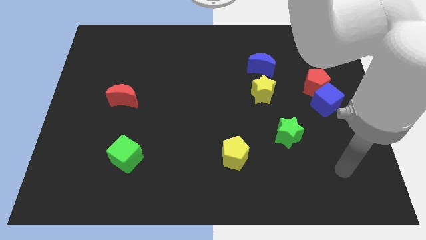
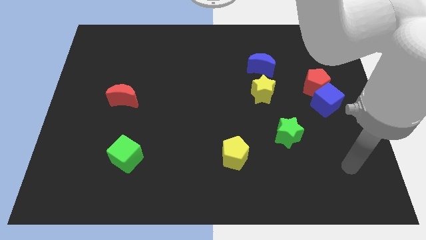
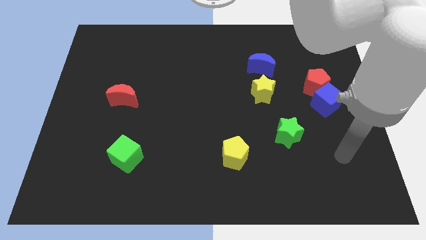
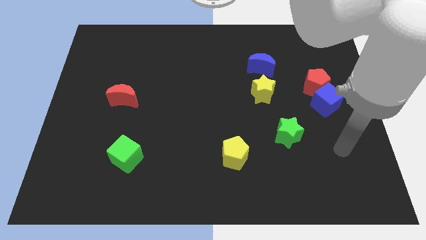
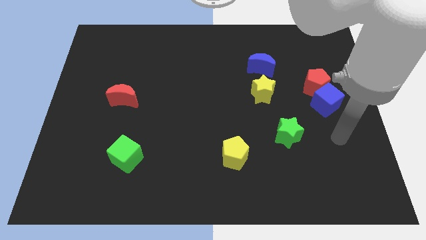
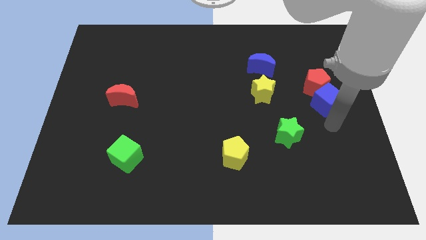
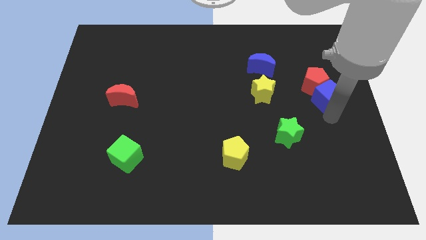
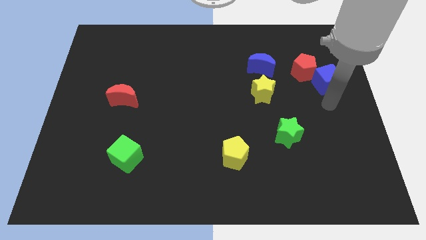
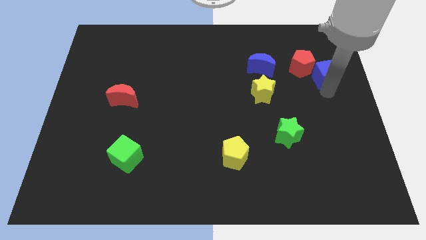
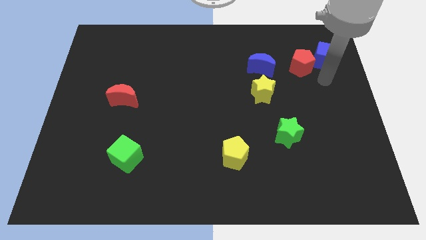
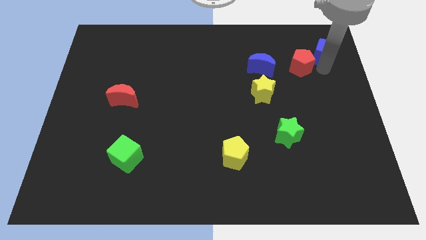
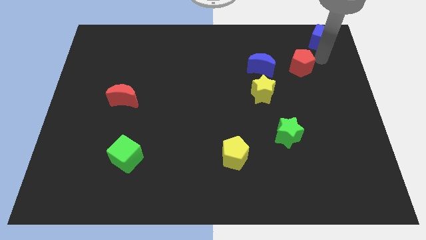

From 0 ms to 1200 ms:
pull the red pentagon apart from the blue cube

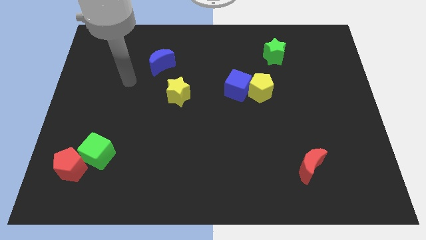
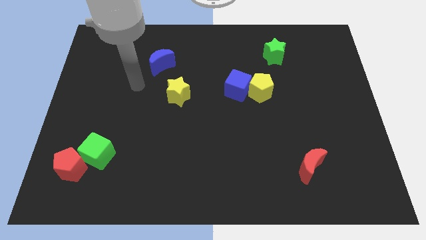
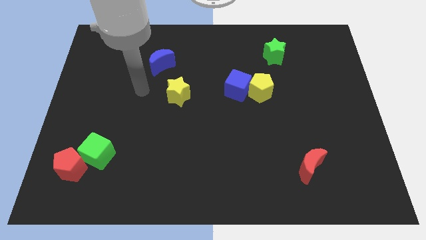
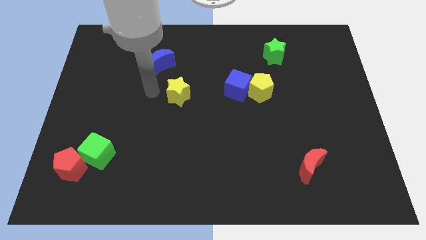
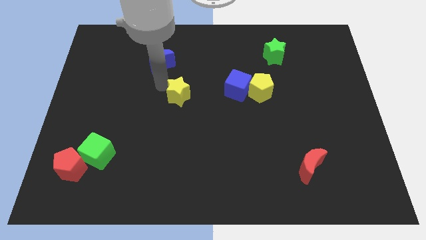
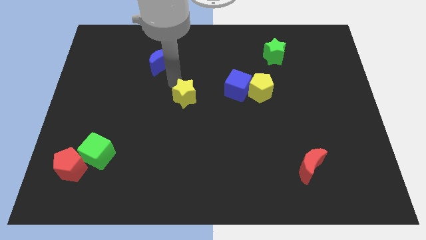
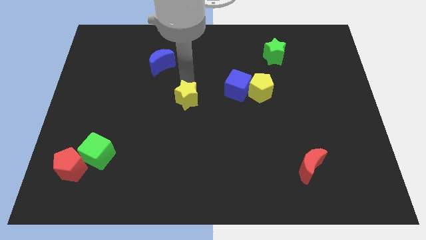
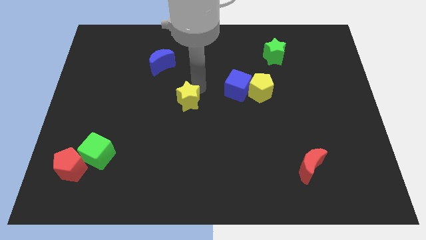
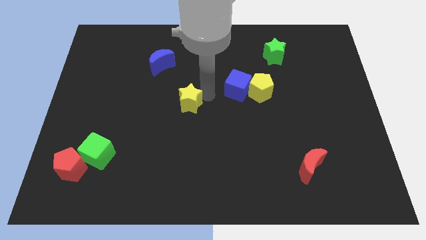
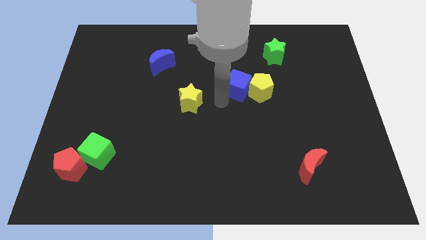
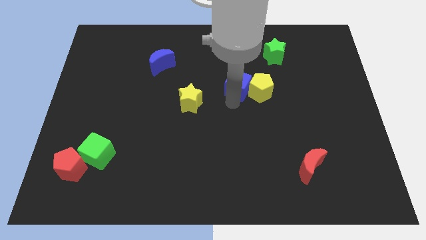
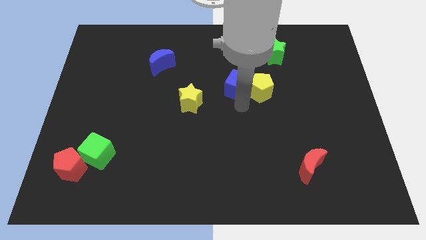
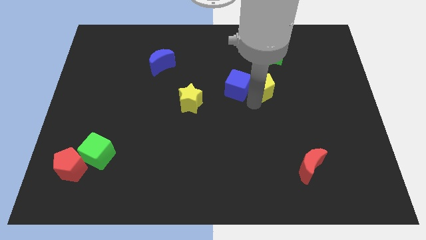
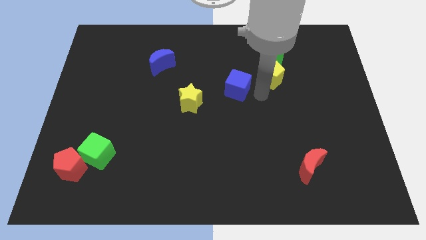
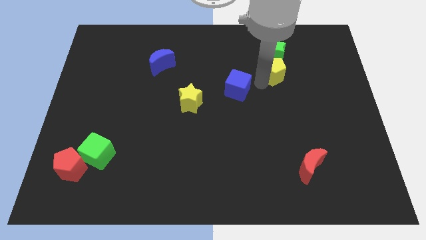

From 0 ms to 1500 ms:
move the blue cube away from the yellow pentagon

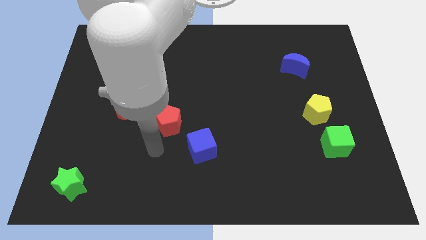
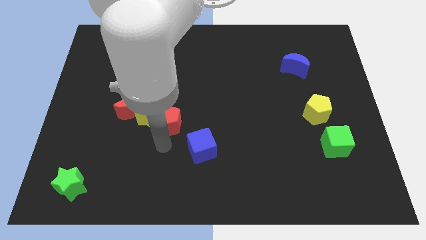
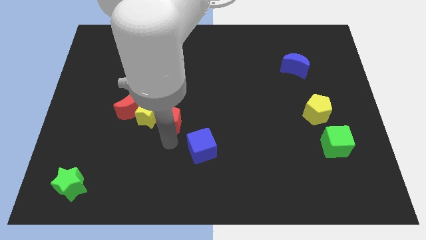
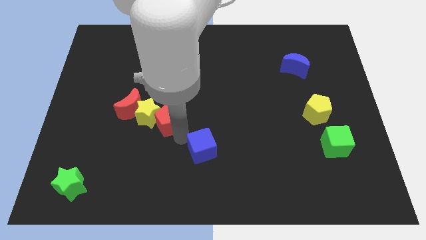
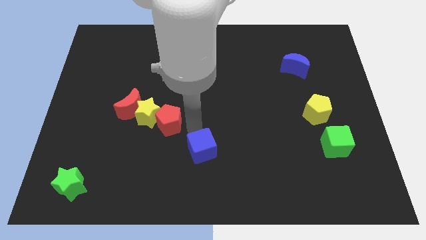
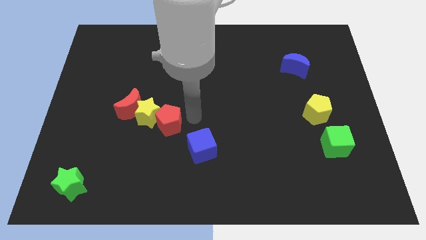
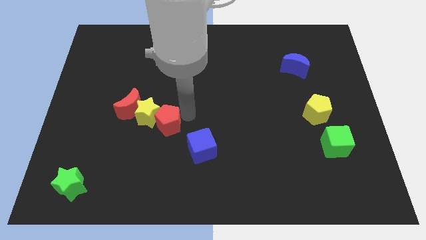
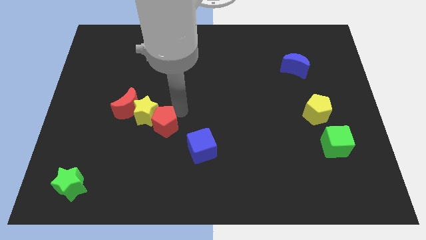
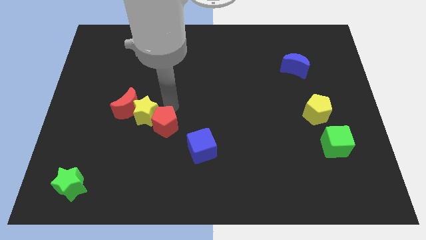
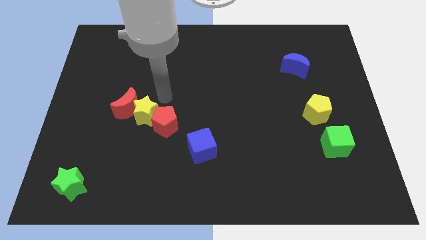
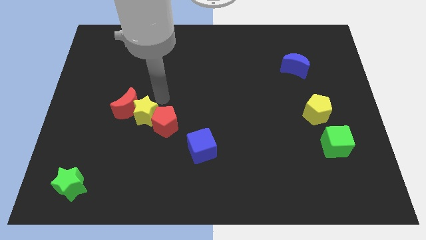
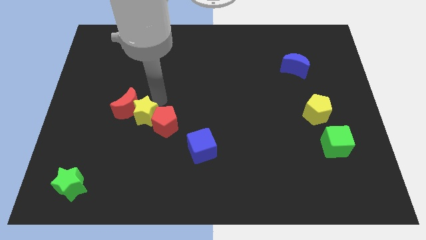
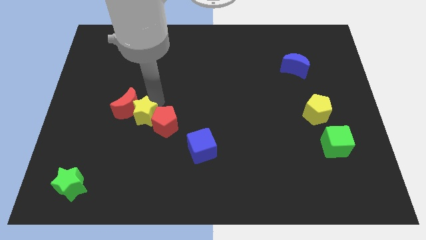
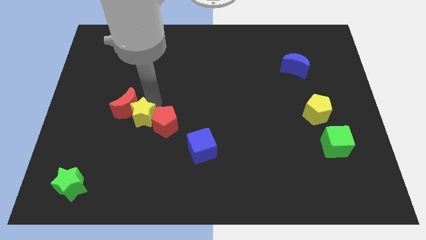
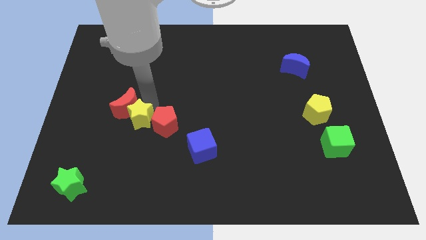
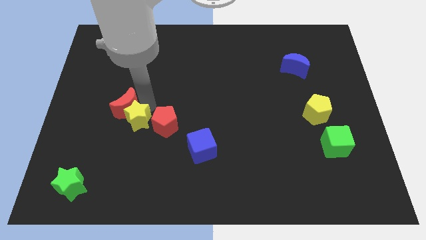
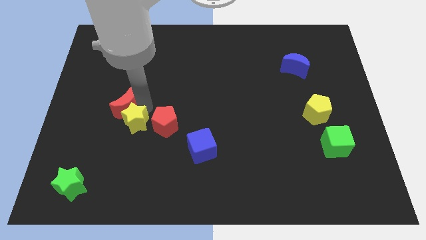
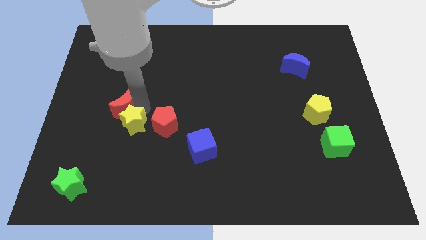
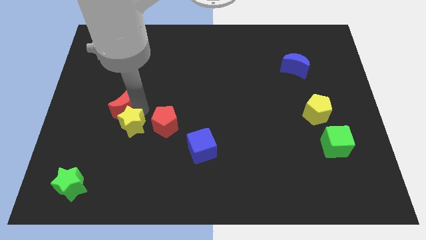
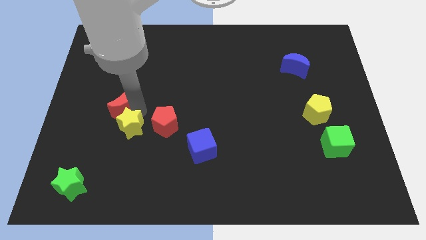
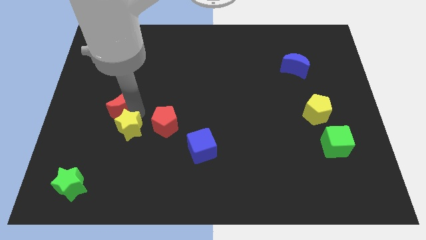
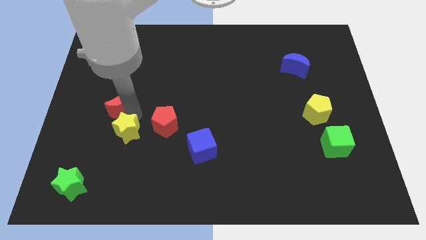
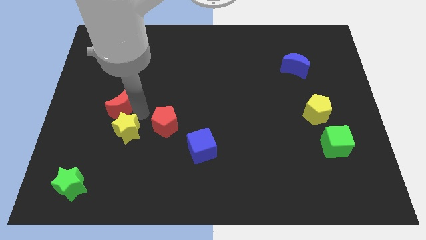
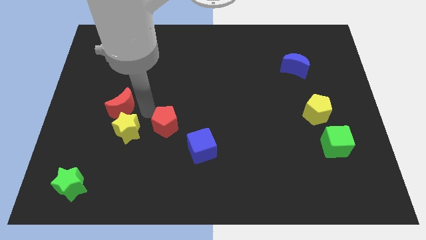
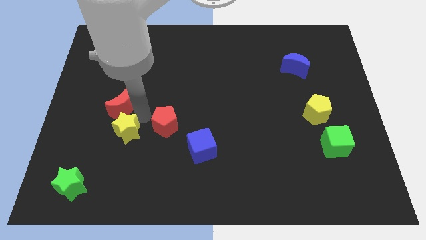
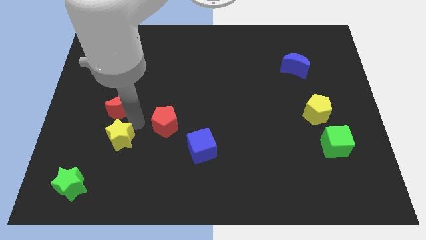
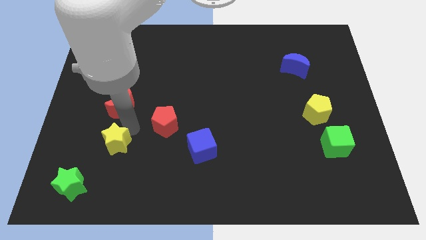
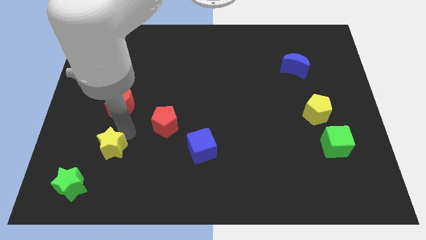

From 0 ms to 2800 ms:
move the yellow star away from the red moon and red pentagon

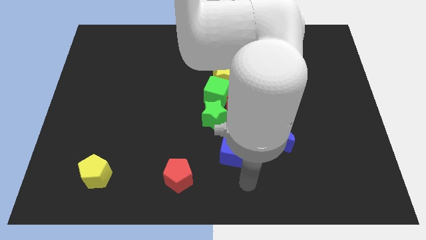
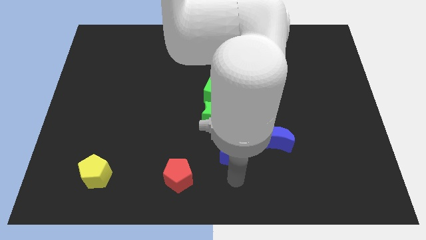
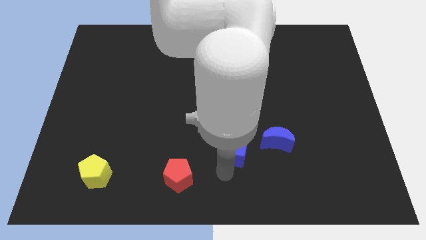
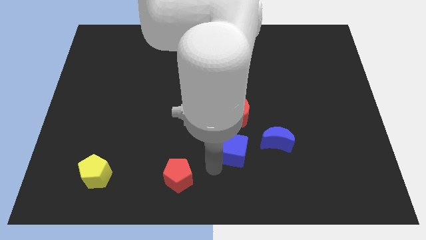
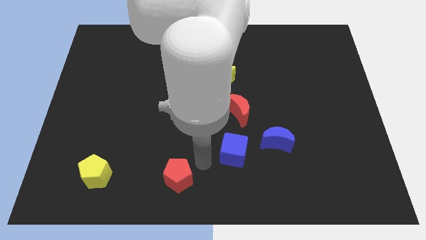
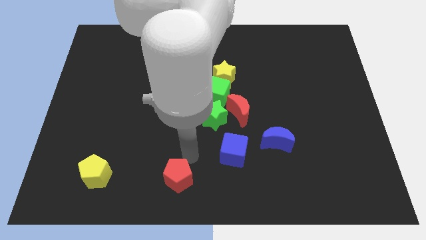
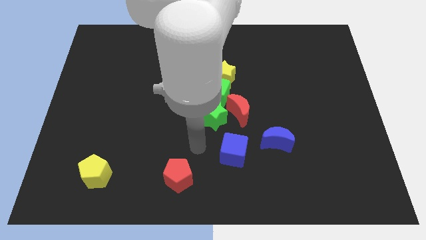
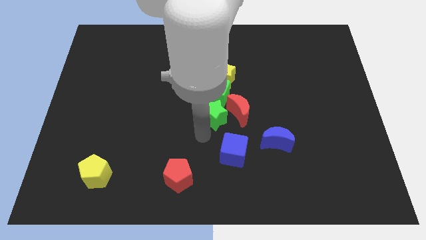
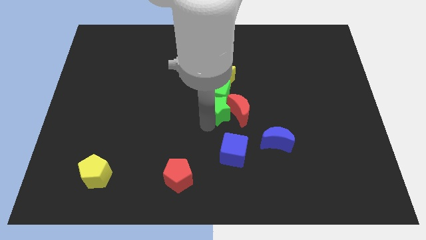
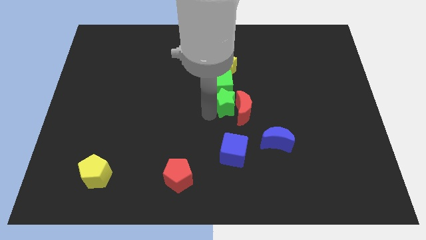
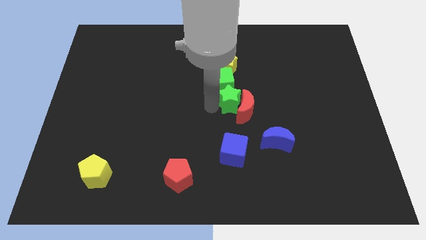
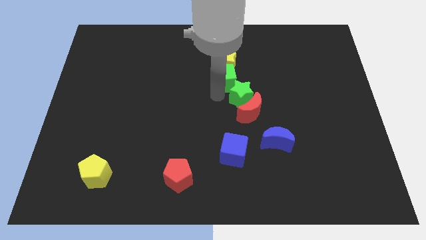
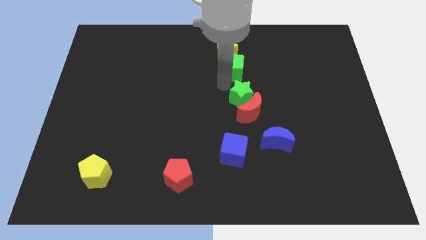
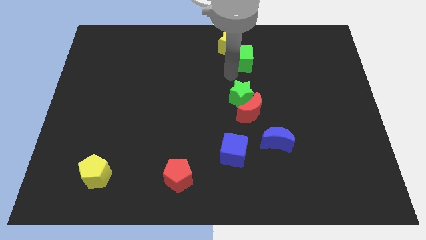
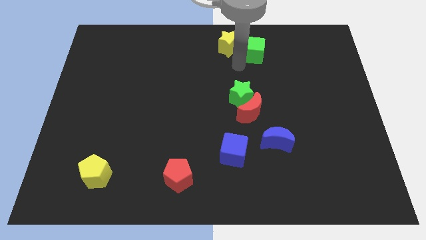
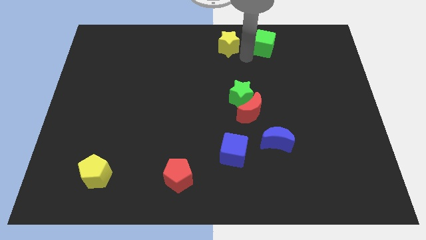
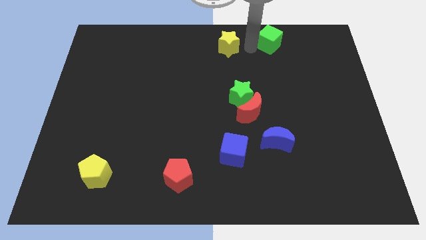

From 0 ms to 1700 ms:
pull the yellow star apart from the green cube

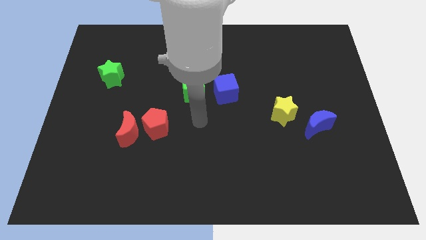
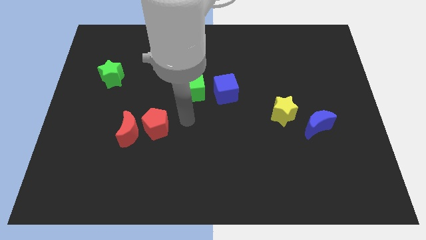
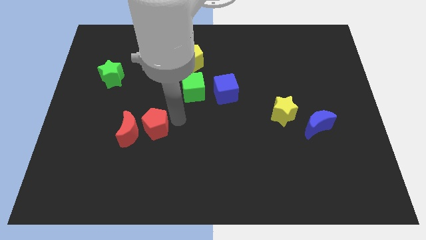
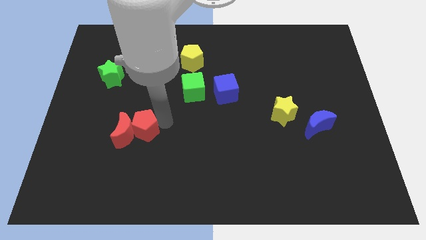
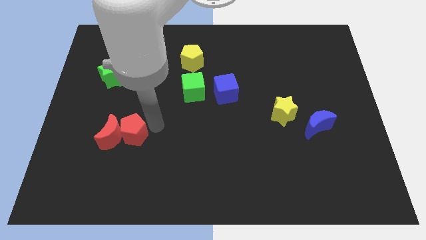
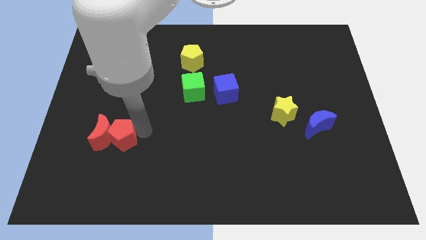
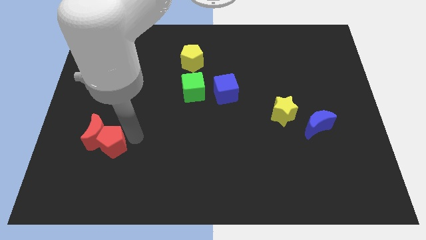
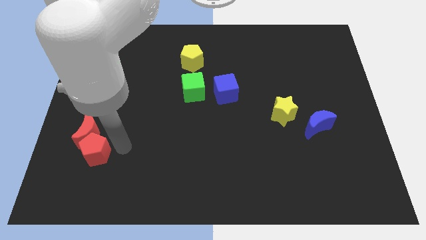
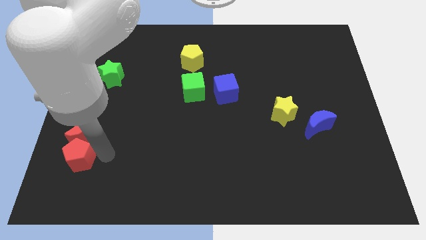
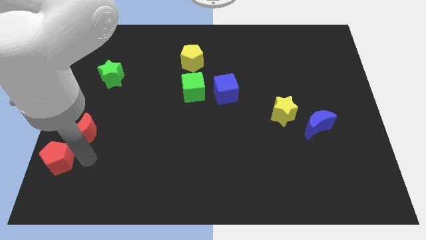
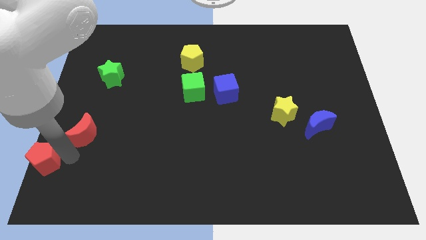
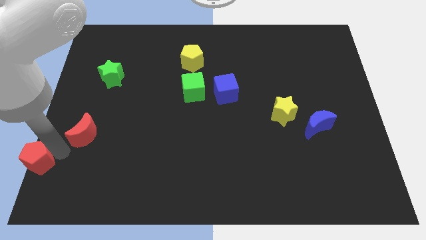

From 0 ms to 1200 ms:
pull the red moon apart from the red pentagon

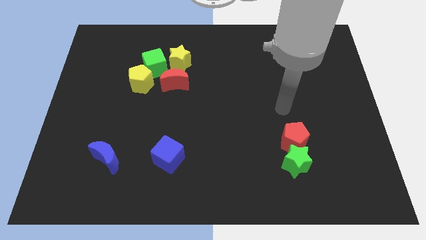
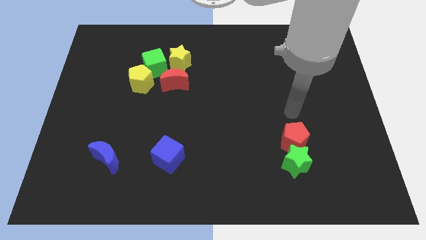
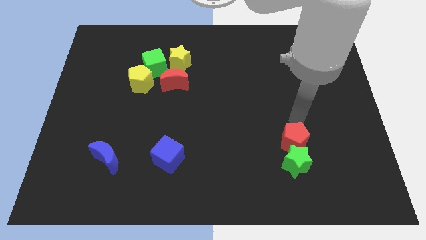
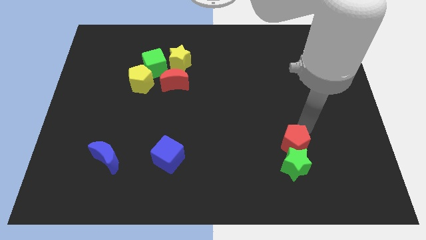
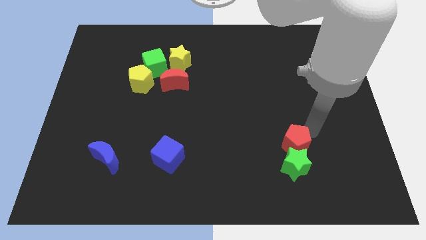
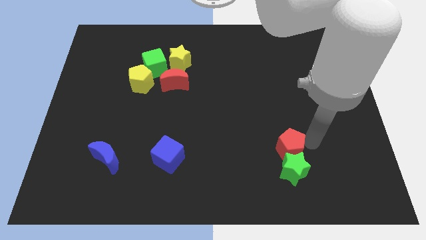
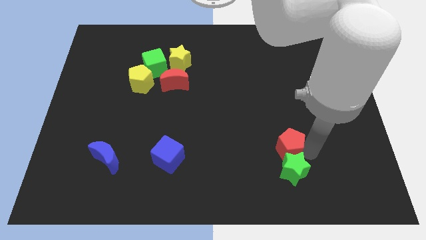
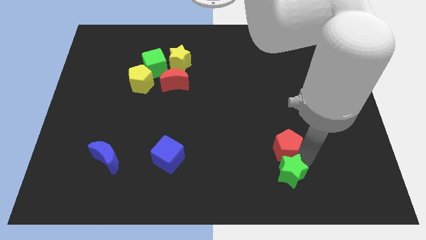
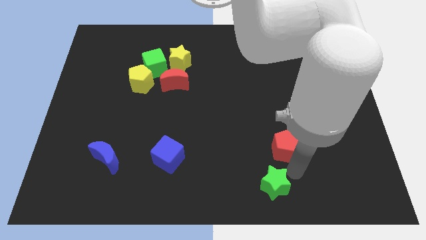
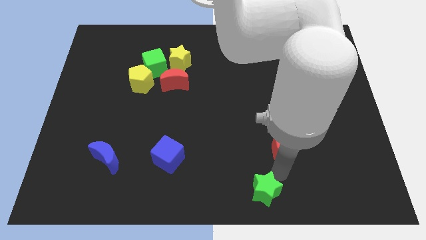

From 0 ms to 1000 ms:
pull the red pentagon apart from the green star
